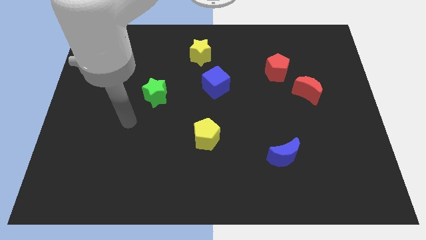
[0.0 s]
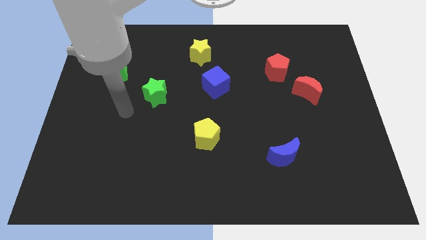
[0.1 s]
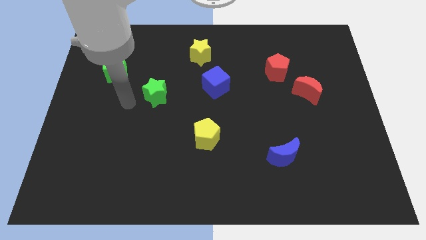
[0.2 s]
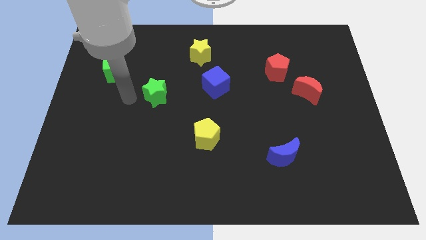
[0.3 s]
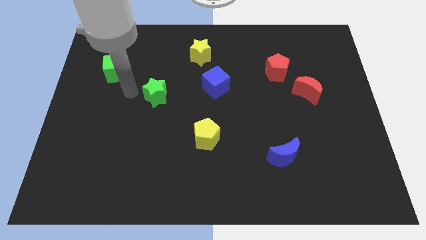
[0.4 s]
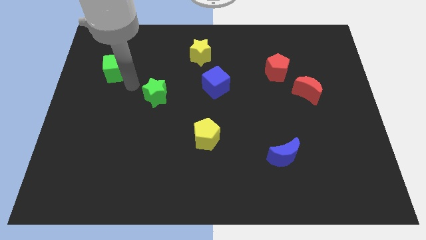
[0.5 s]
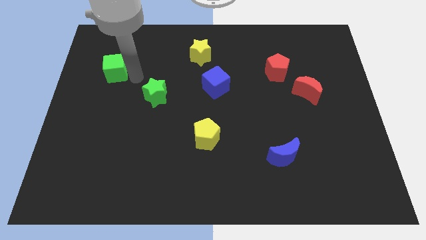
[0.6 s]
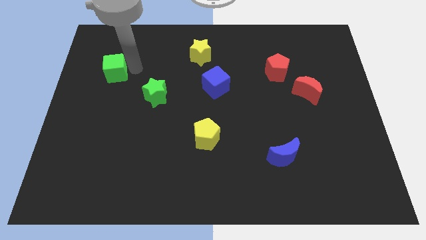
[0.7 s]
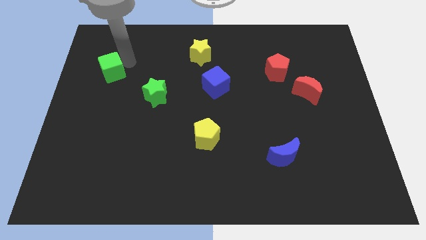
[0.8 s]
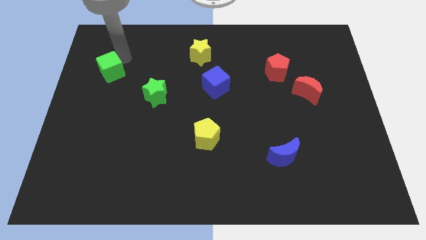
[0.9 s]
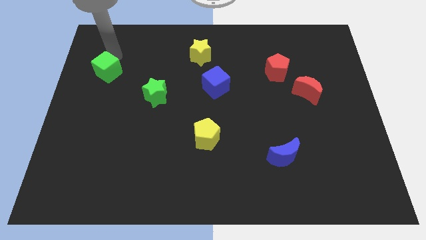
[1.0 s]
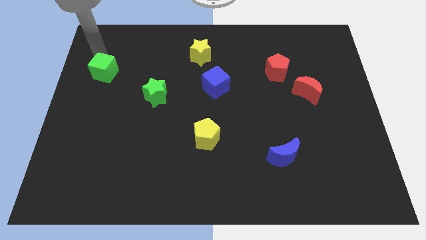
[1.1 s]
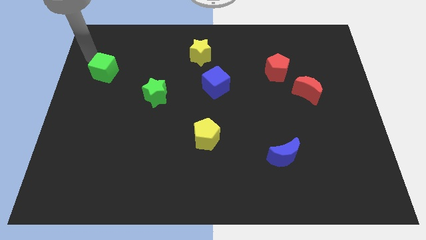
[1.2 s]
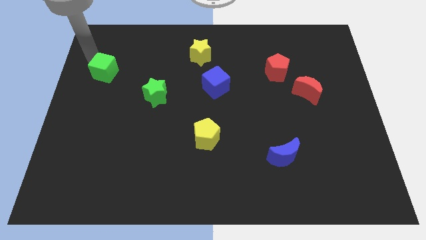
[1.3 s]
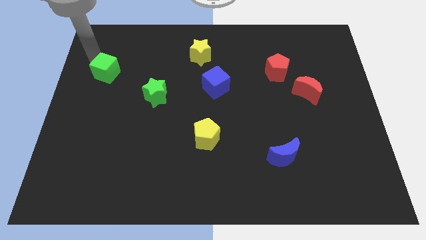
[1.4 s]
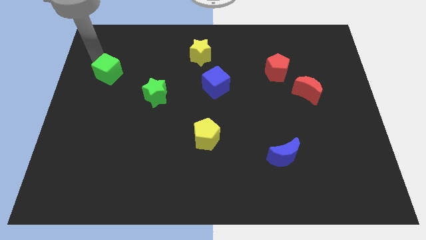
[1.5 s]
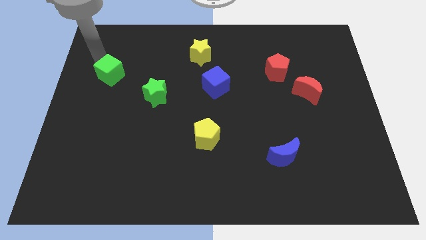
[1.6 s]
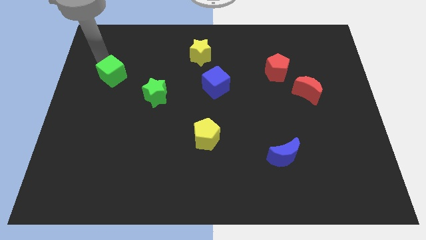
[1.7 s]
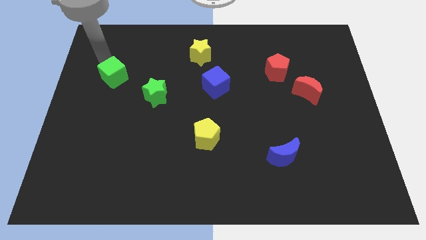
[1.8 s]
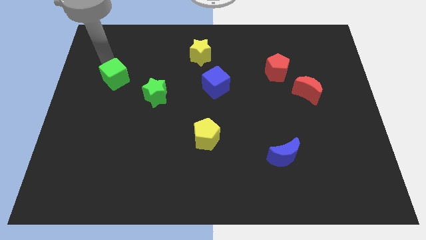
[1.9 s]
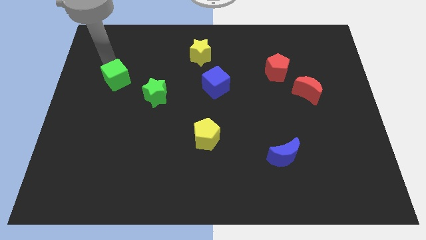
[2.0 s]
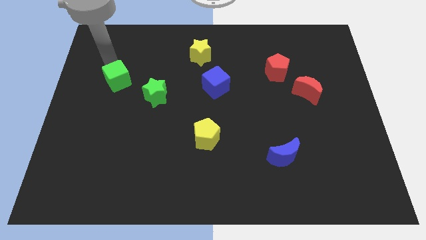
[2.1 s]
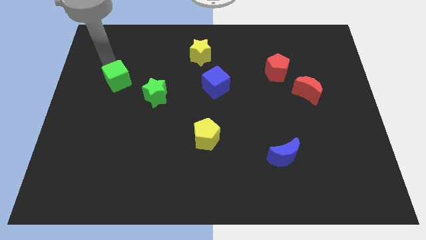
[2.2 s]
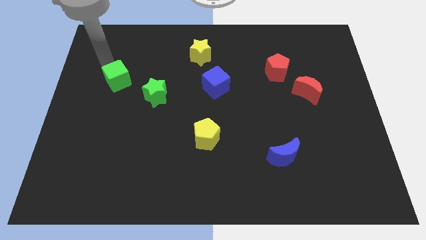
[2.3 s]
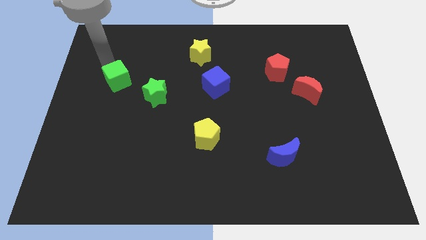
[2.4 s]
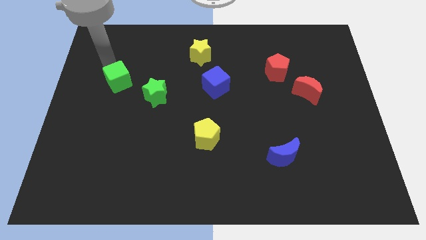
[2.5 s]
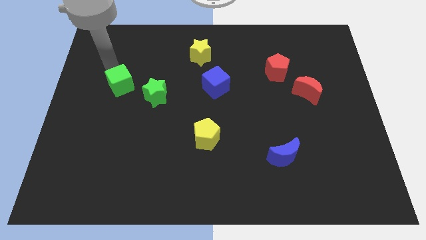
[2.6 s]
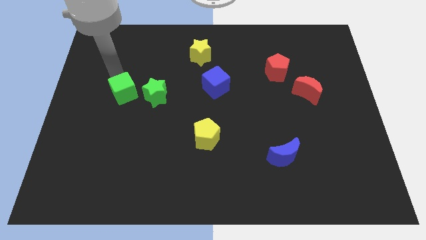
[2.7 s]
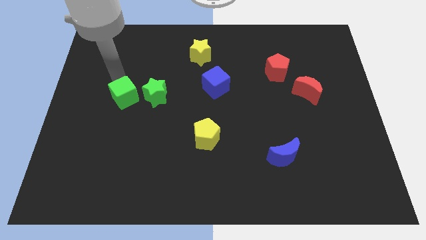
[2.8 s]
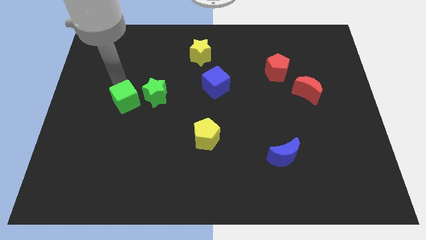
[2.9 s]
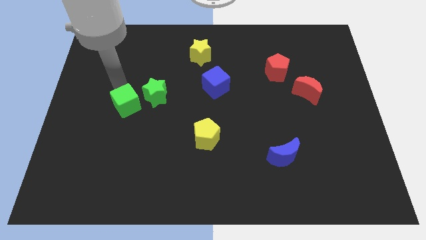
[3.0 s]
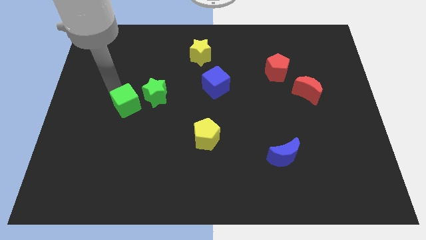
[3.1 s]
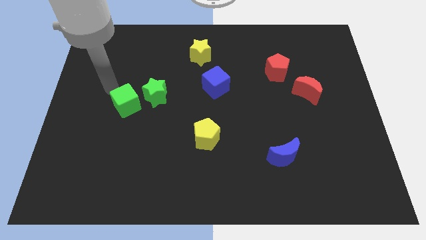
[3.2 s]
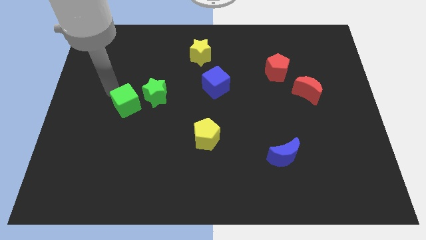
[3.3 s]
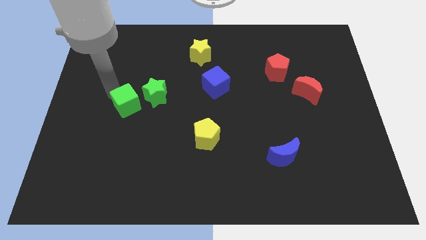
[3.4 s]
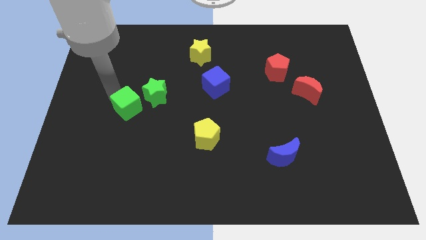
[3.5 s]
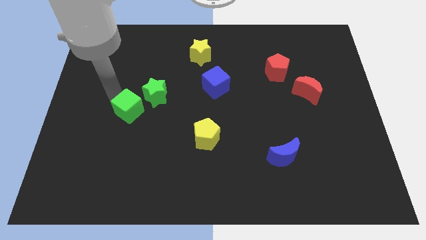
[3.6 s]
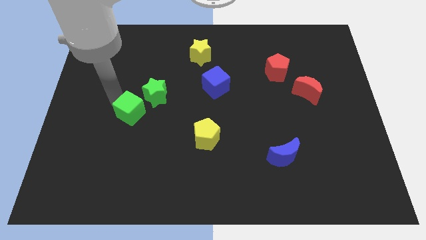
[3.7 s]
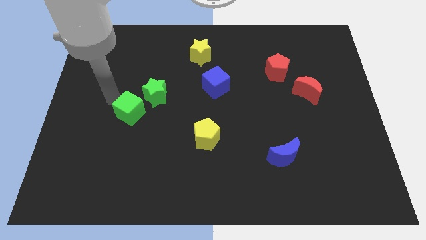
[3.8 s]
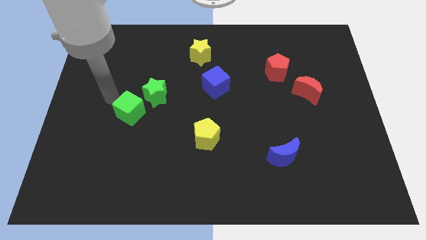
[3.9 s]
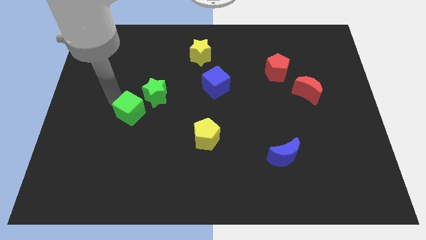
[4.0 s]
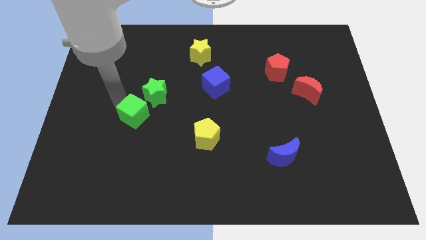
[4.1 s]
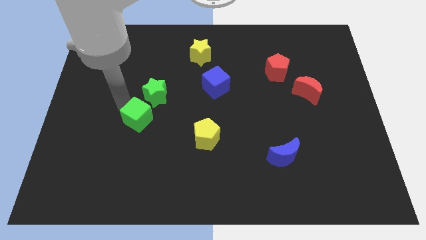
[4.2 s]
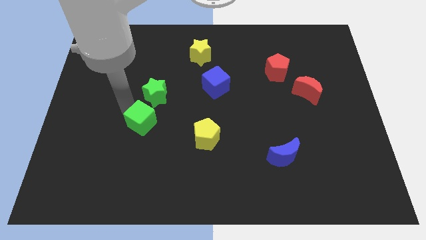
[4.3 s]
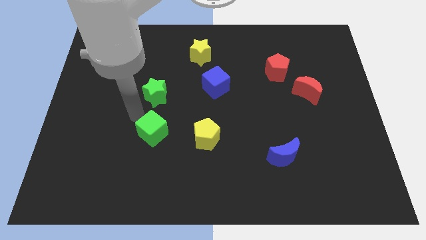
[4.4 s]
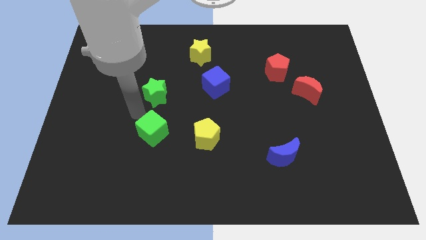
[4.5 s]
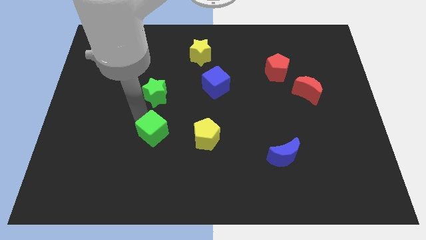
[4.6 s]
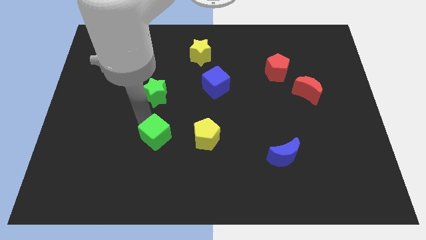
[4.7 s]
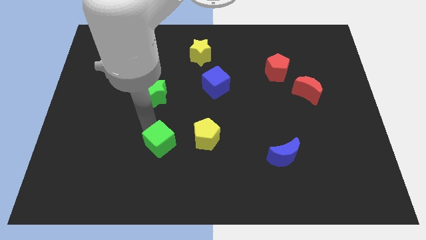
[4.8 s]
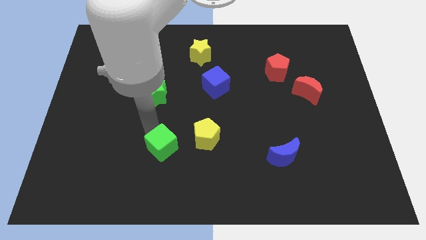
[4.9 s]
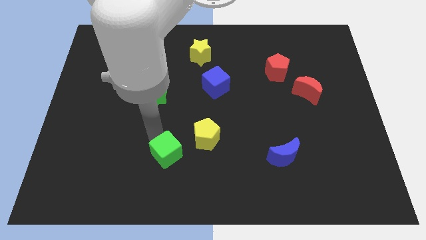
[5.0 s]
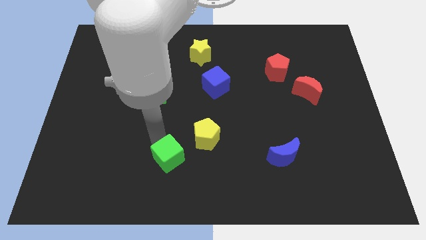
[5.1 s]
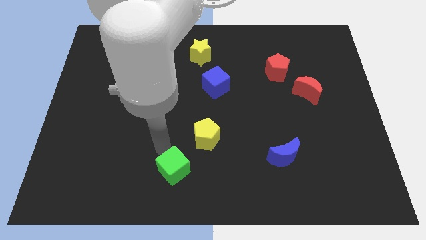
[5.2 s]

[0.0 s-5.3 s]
put the green cube to the bottom side

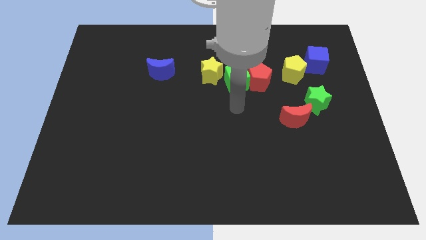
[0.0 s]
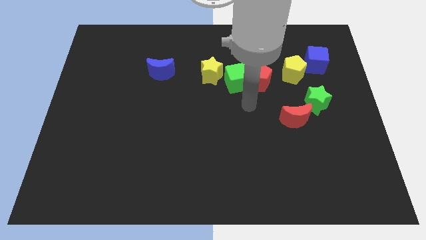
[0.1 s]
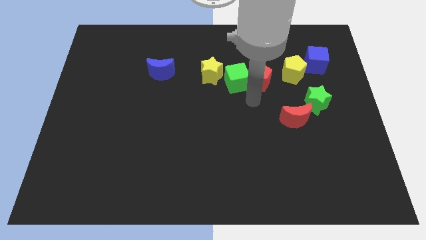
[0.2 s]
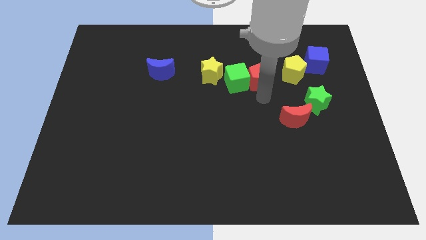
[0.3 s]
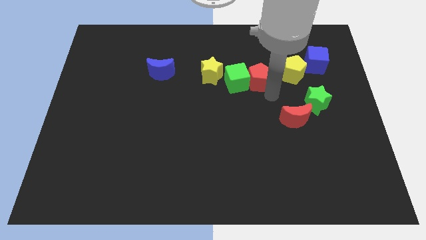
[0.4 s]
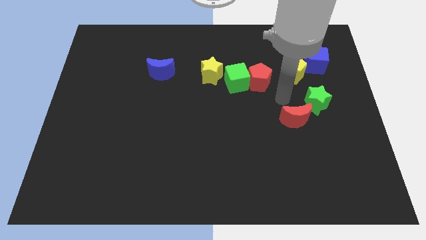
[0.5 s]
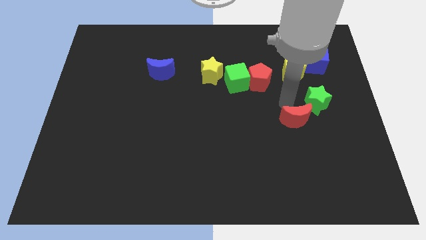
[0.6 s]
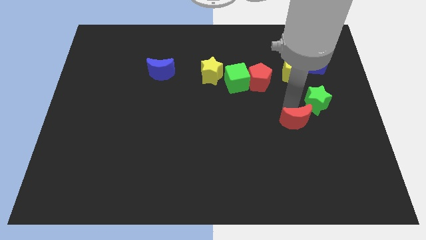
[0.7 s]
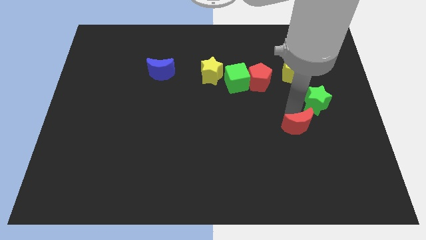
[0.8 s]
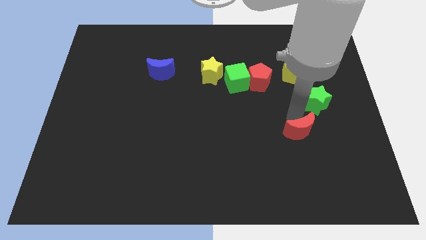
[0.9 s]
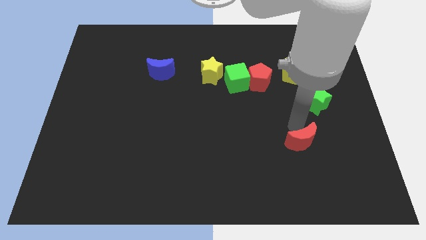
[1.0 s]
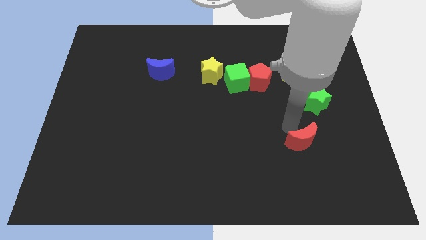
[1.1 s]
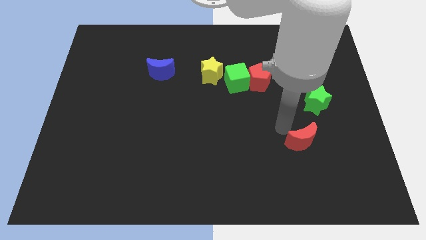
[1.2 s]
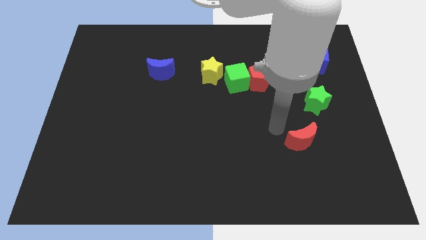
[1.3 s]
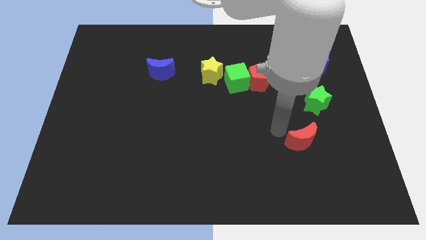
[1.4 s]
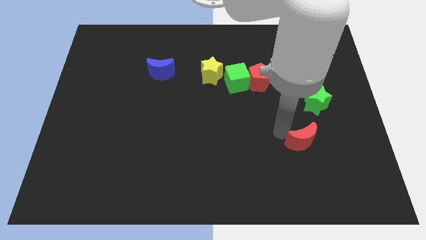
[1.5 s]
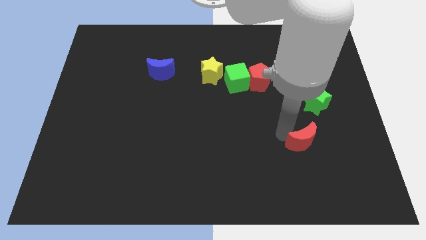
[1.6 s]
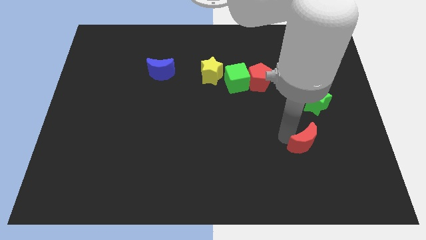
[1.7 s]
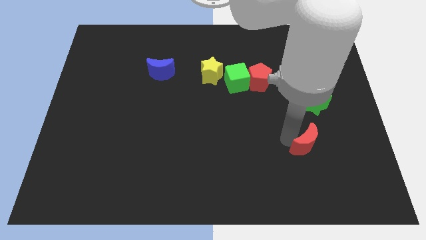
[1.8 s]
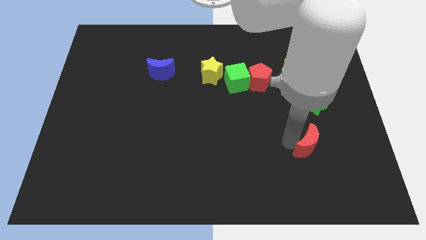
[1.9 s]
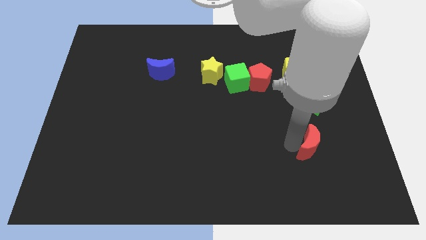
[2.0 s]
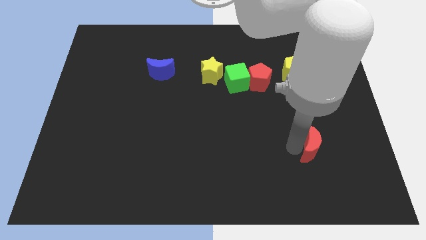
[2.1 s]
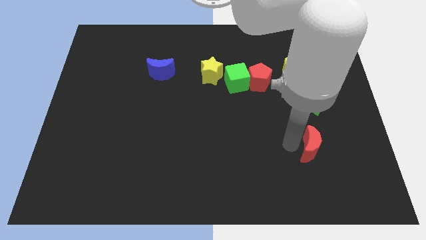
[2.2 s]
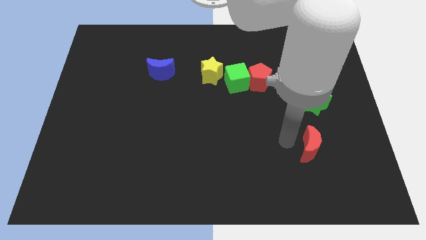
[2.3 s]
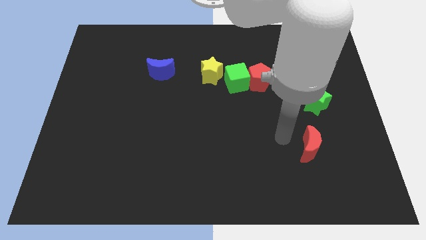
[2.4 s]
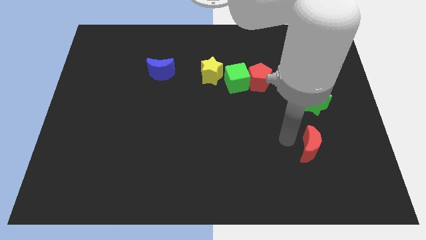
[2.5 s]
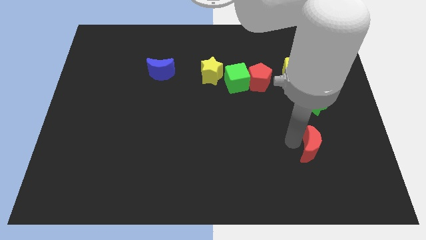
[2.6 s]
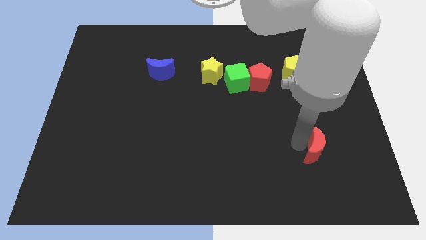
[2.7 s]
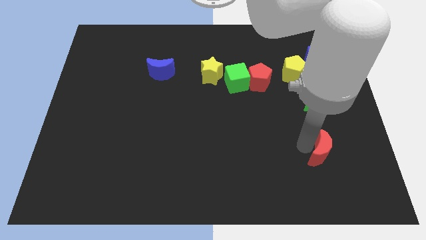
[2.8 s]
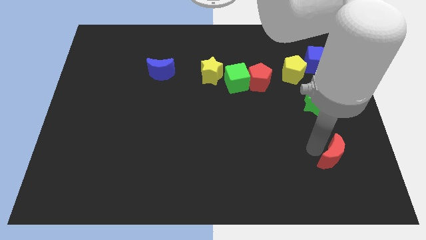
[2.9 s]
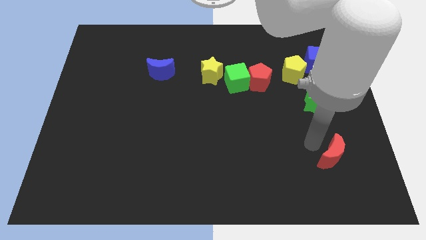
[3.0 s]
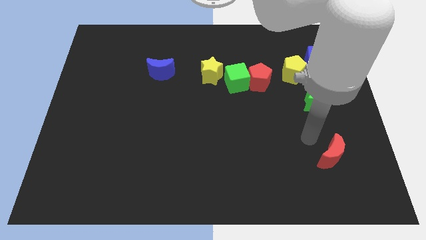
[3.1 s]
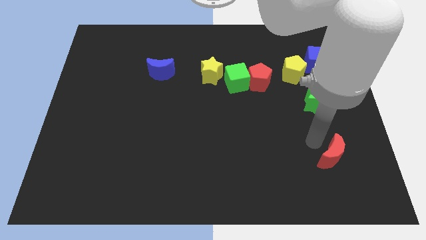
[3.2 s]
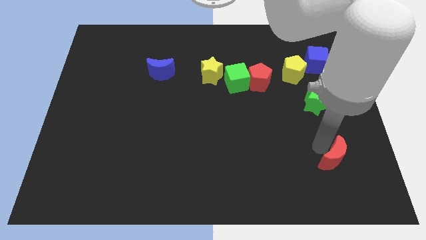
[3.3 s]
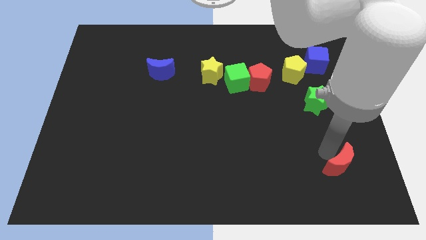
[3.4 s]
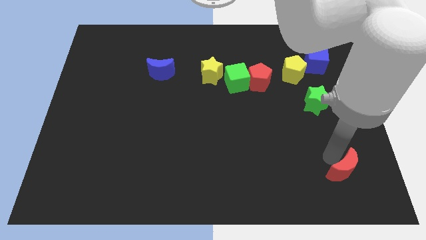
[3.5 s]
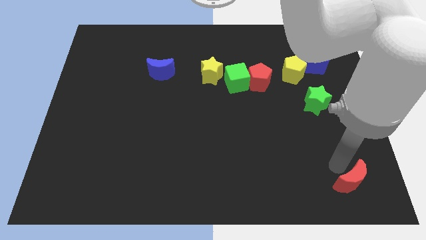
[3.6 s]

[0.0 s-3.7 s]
push the red moon to the lower right corner
